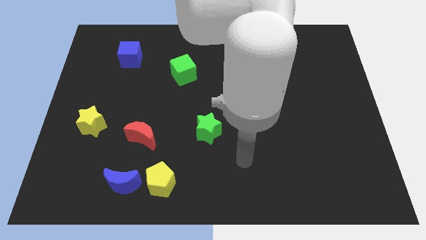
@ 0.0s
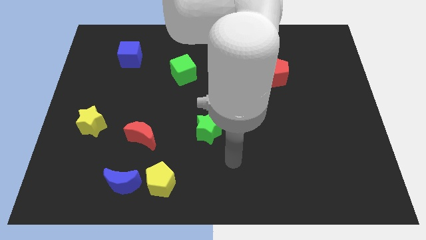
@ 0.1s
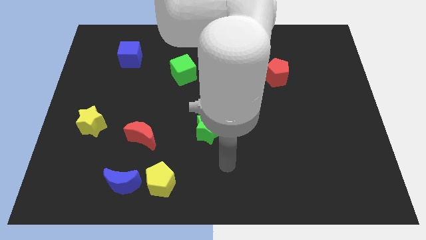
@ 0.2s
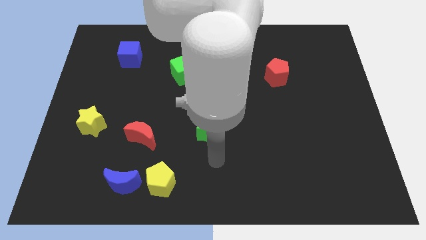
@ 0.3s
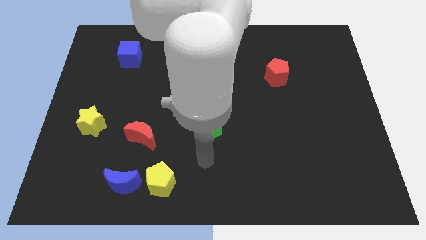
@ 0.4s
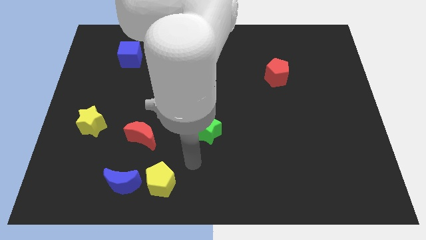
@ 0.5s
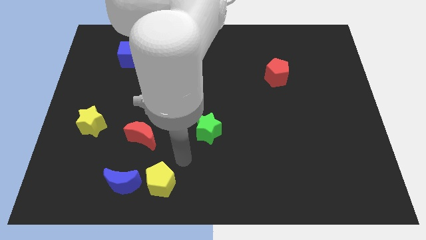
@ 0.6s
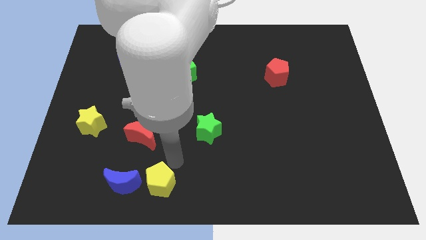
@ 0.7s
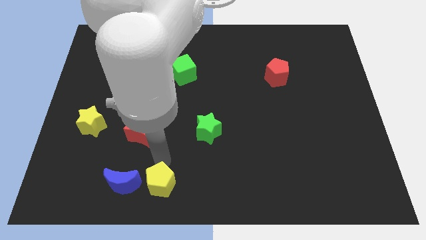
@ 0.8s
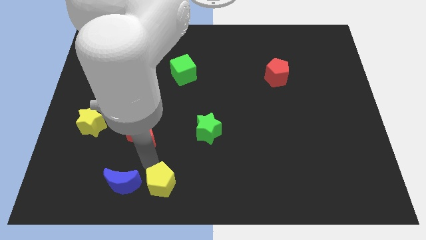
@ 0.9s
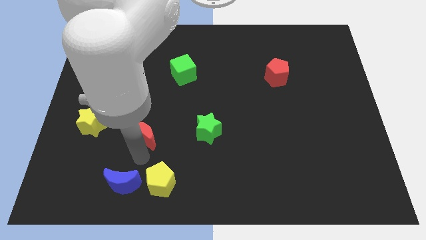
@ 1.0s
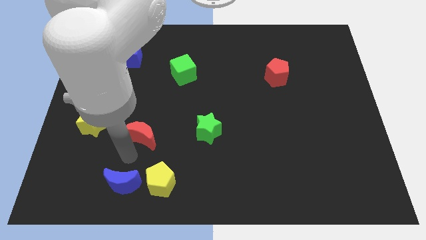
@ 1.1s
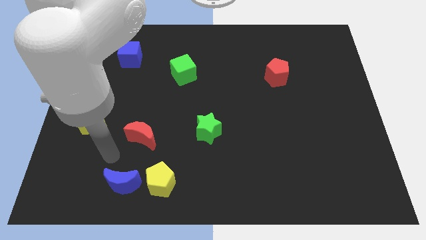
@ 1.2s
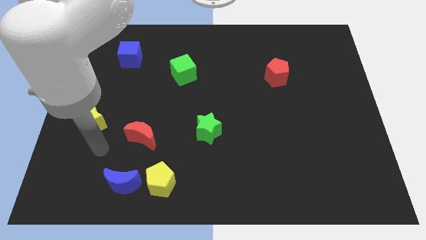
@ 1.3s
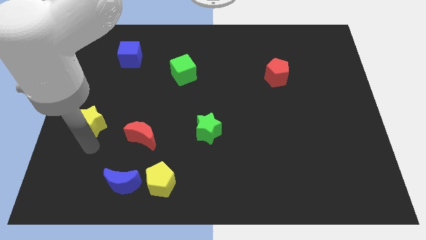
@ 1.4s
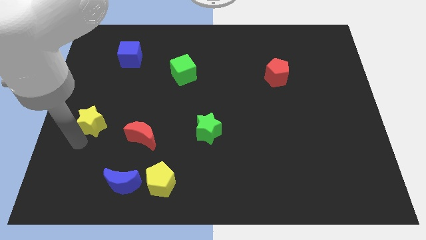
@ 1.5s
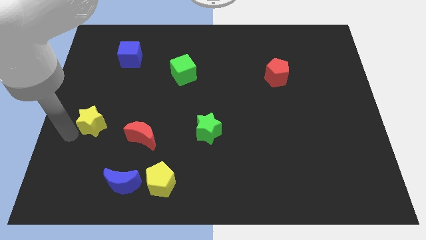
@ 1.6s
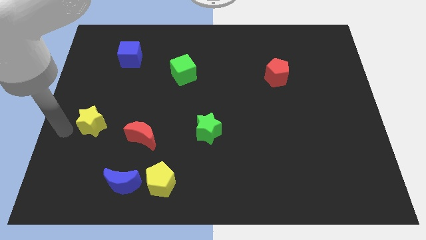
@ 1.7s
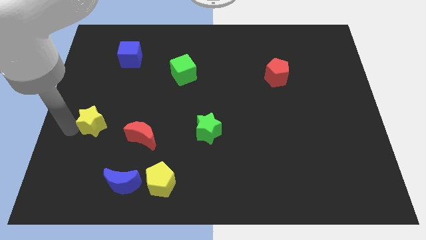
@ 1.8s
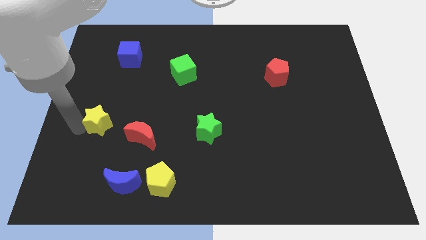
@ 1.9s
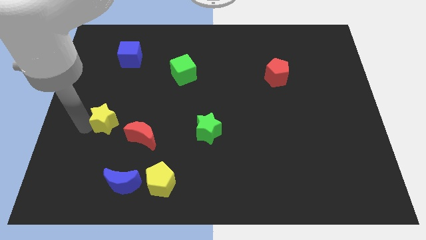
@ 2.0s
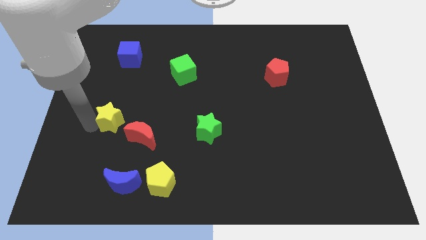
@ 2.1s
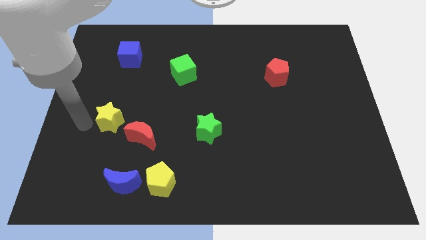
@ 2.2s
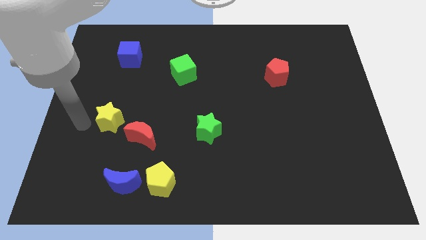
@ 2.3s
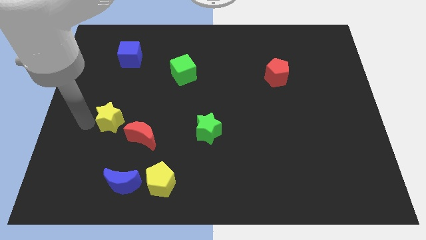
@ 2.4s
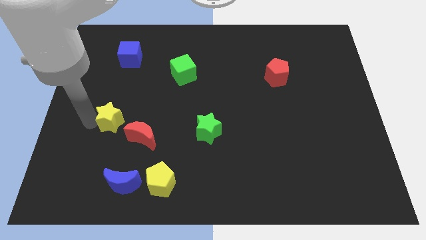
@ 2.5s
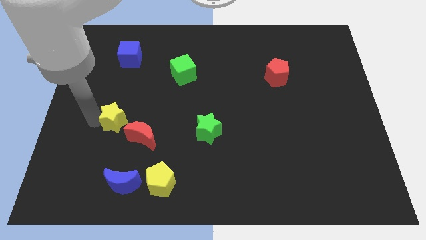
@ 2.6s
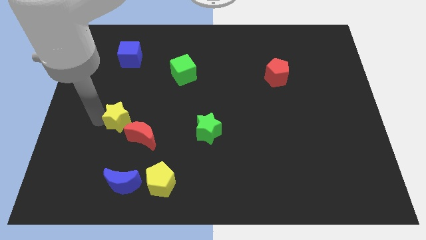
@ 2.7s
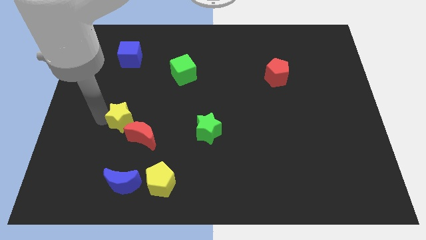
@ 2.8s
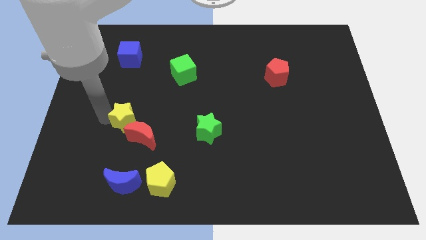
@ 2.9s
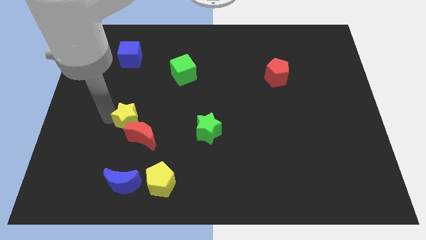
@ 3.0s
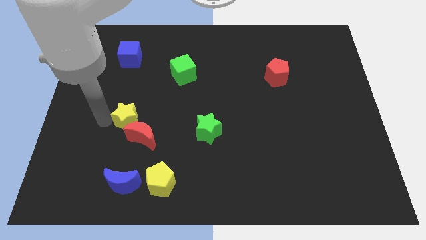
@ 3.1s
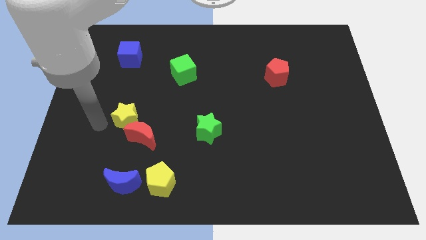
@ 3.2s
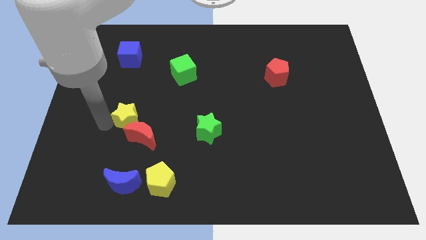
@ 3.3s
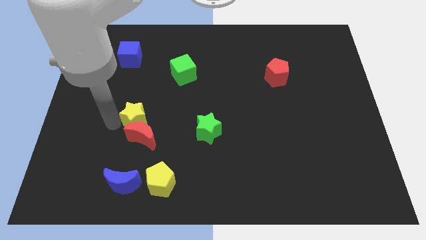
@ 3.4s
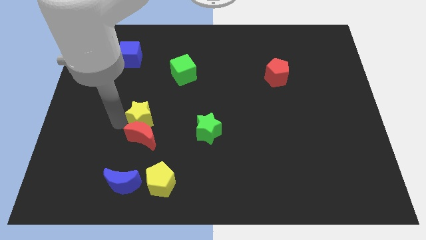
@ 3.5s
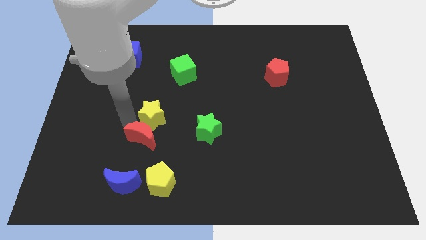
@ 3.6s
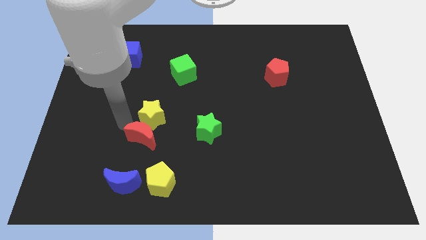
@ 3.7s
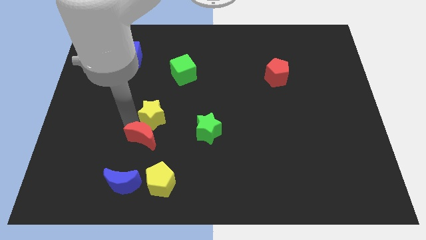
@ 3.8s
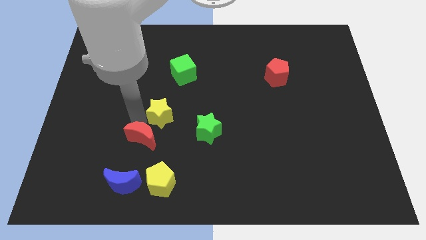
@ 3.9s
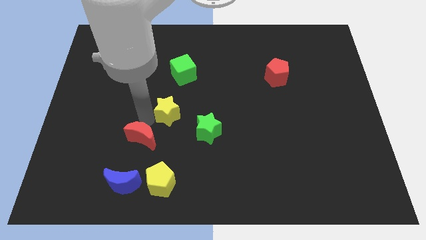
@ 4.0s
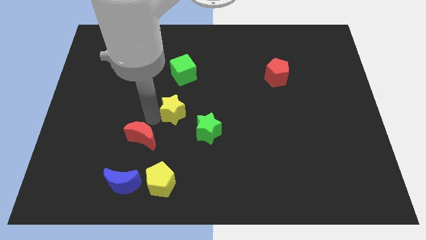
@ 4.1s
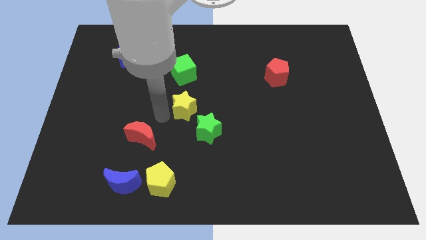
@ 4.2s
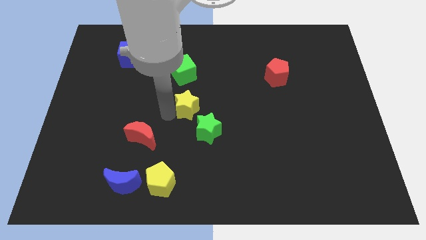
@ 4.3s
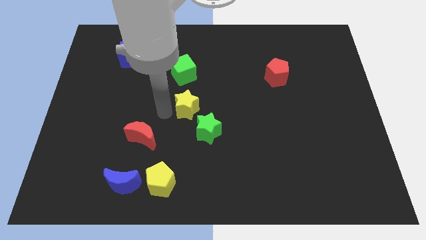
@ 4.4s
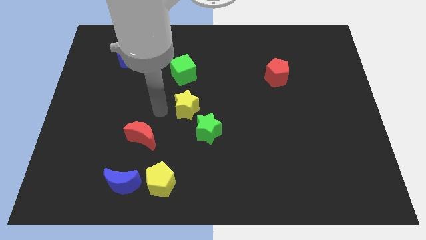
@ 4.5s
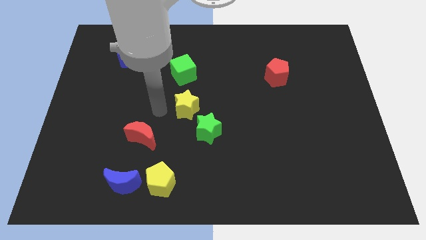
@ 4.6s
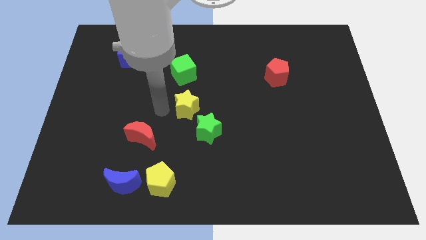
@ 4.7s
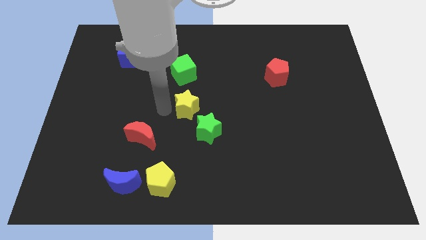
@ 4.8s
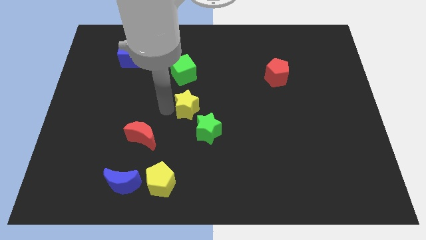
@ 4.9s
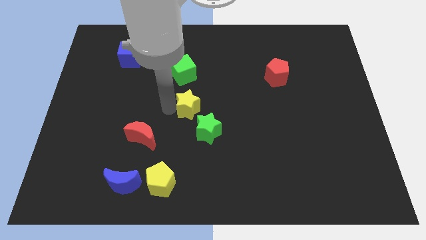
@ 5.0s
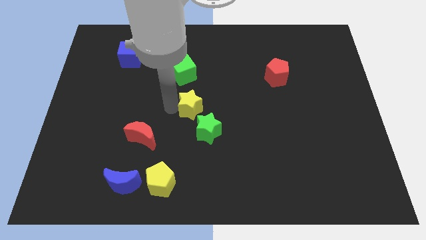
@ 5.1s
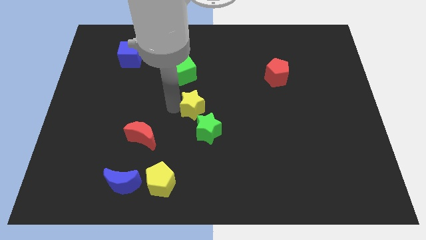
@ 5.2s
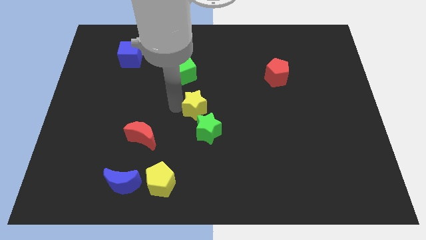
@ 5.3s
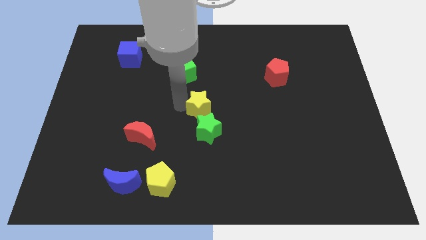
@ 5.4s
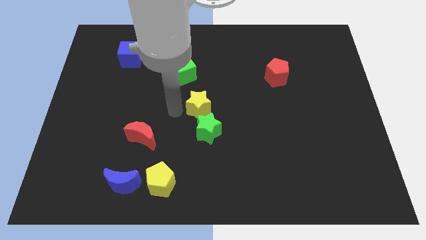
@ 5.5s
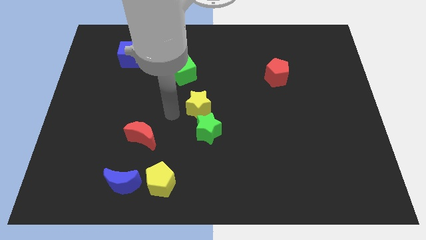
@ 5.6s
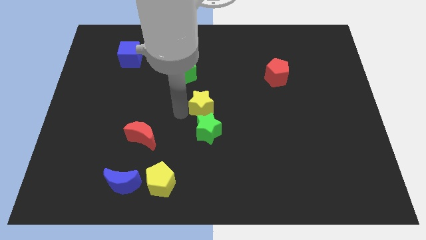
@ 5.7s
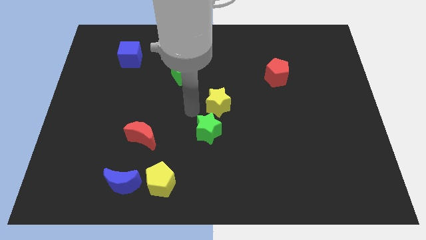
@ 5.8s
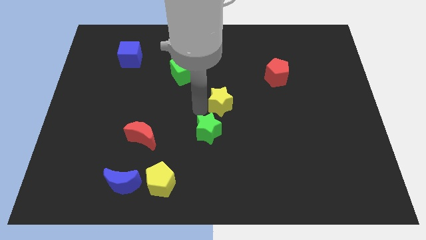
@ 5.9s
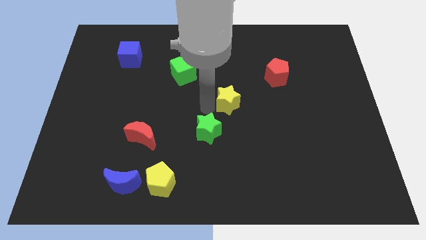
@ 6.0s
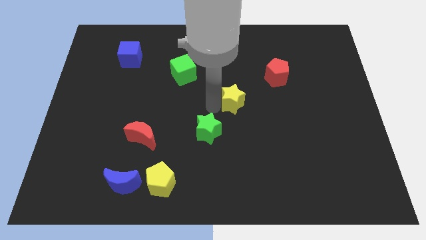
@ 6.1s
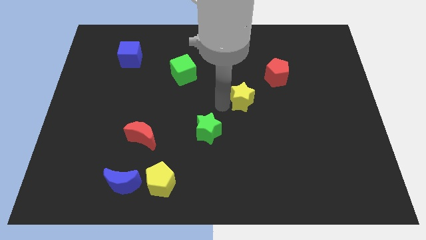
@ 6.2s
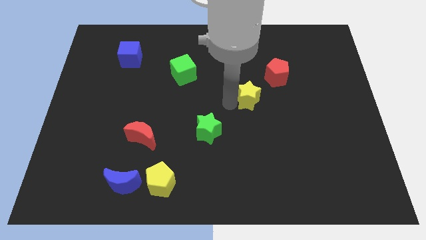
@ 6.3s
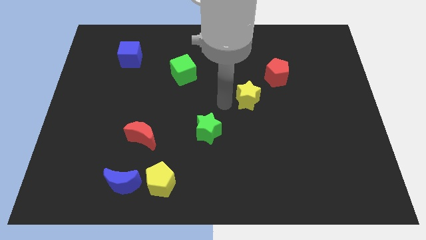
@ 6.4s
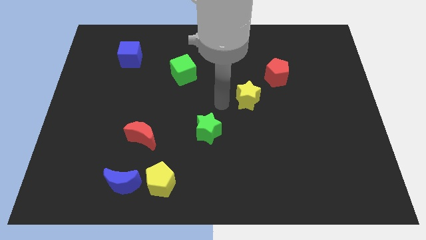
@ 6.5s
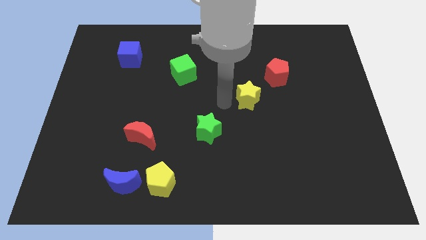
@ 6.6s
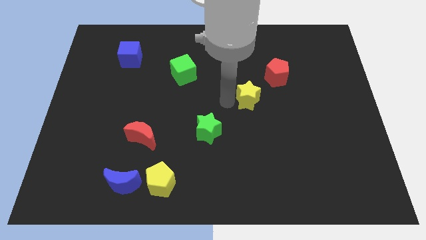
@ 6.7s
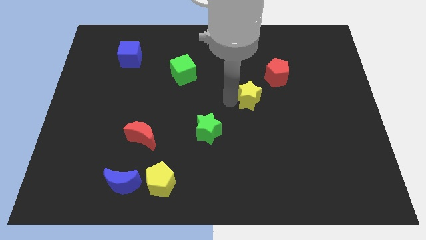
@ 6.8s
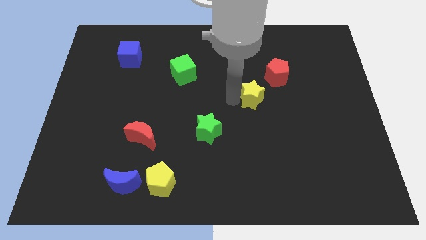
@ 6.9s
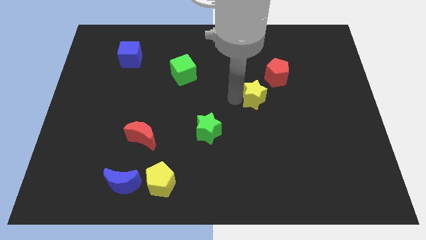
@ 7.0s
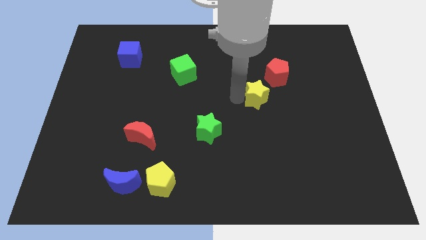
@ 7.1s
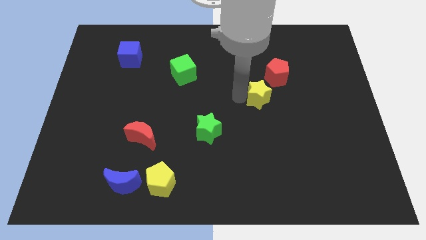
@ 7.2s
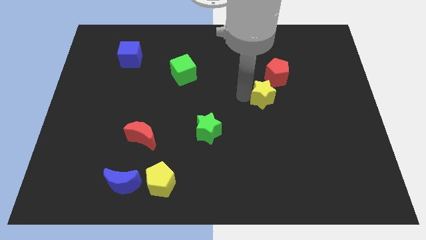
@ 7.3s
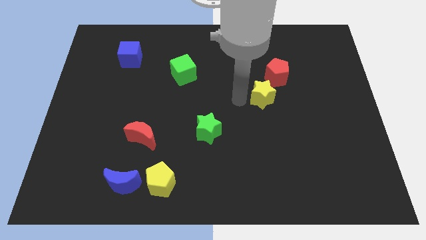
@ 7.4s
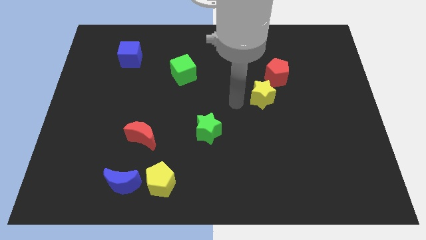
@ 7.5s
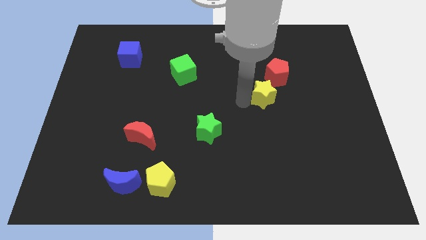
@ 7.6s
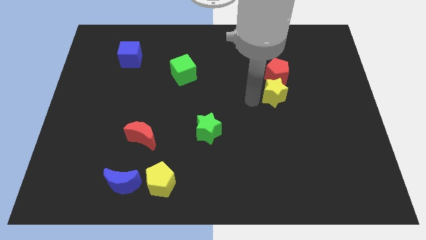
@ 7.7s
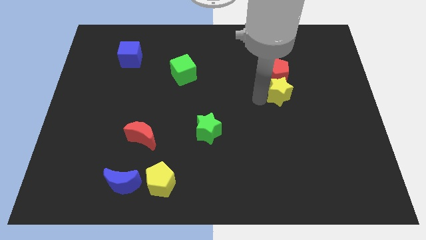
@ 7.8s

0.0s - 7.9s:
push the yellow star diagonally down and to the right of the red pentagon
